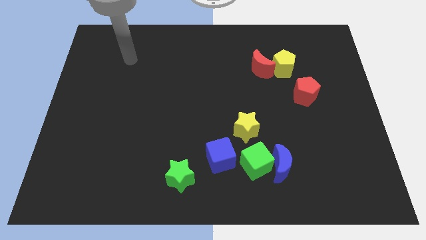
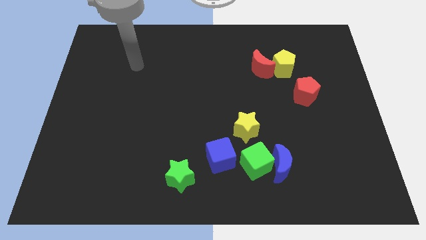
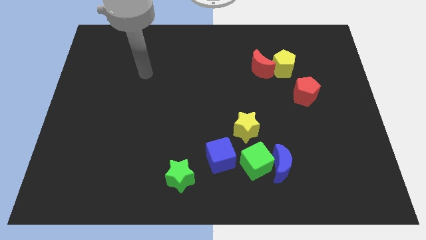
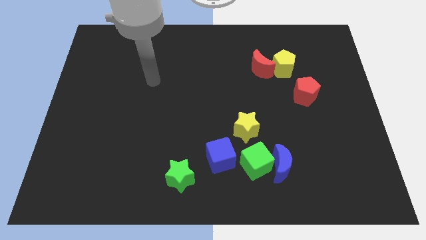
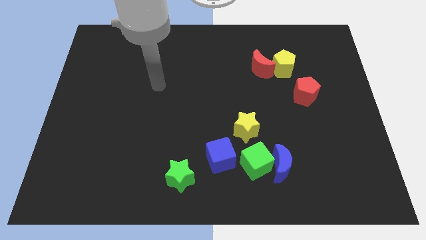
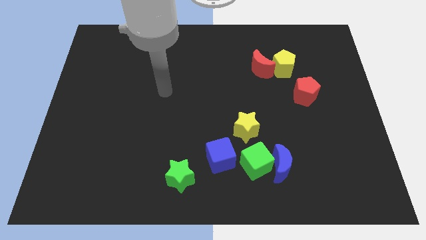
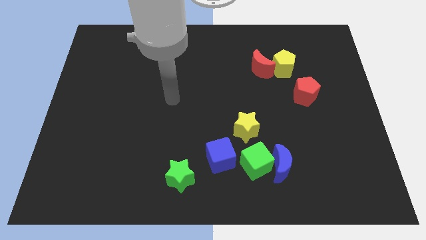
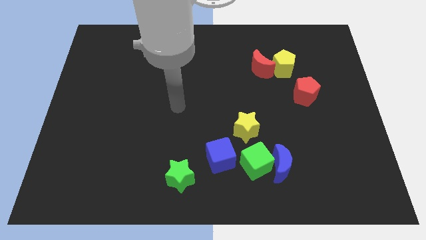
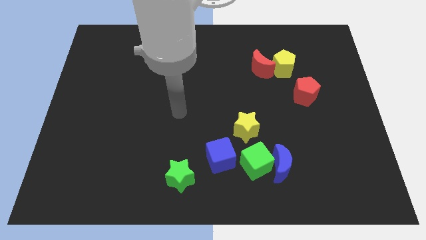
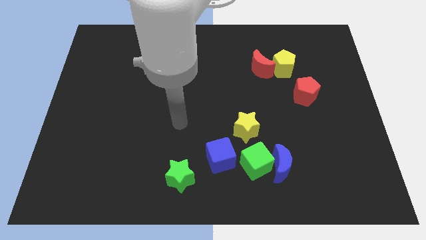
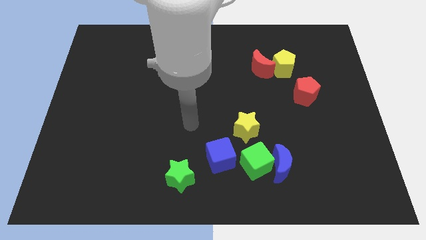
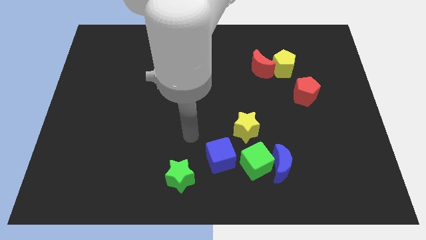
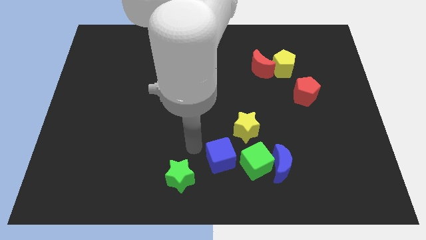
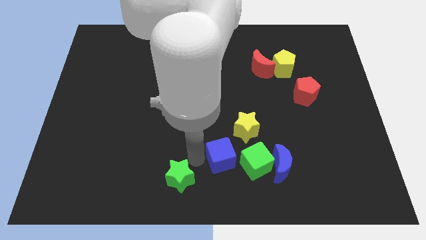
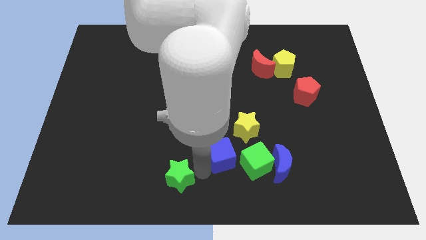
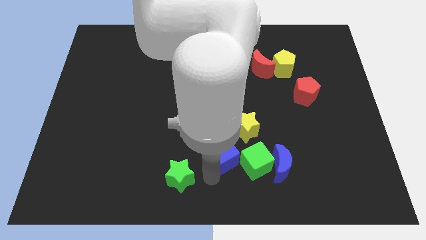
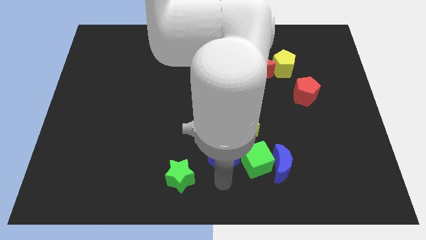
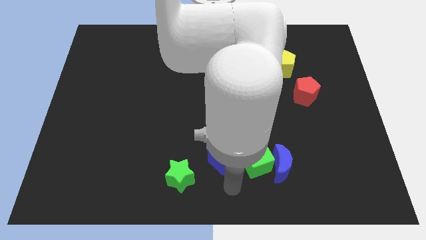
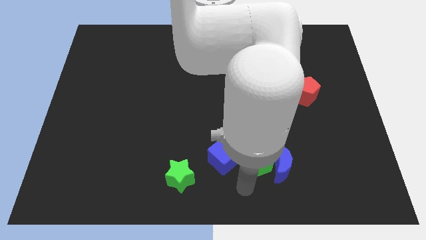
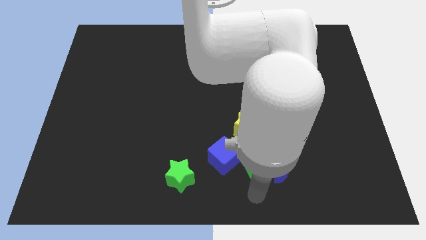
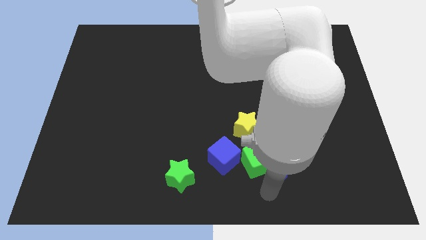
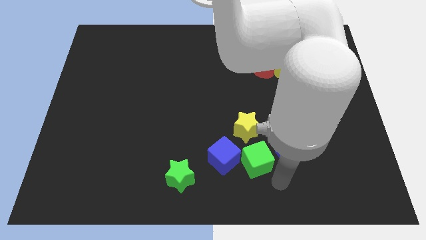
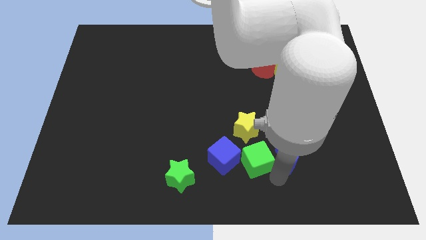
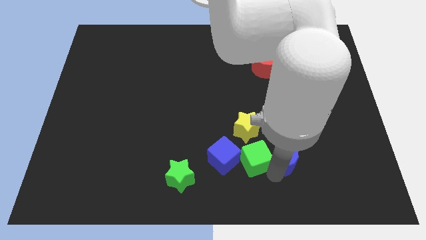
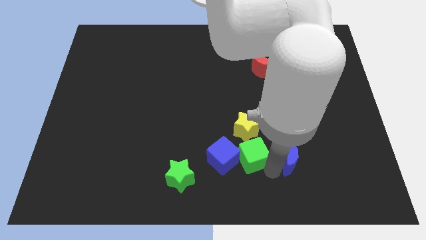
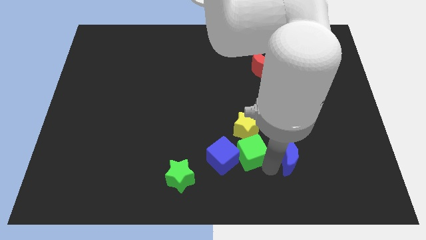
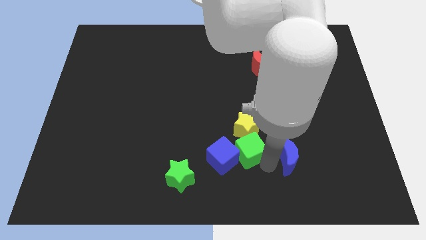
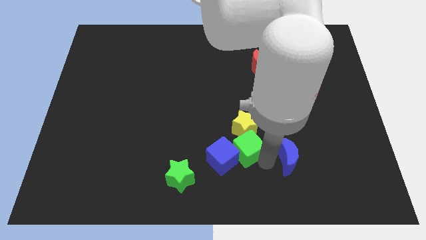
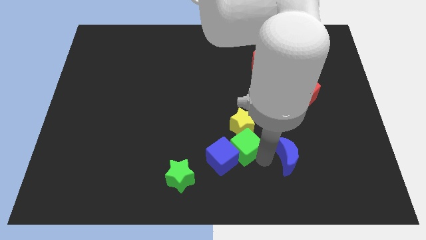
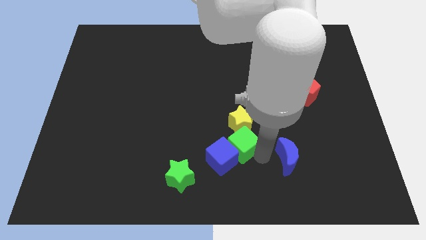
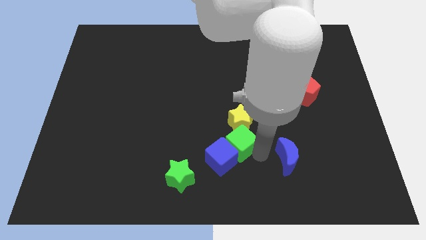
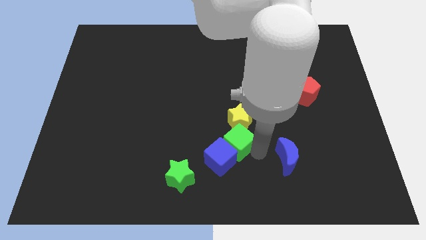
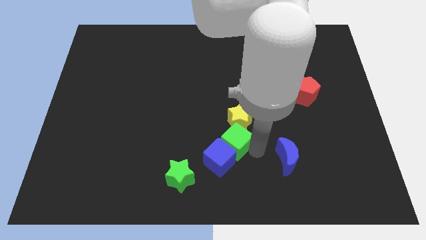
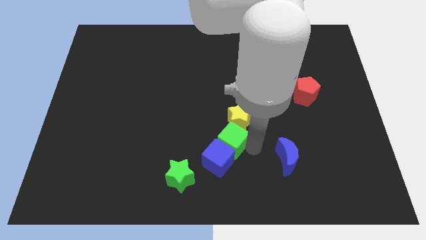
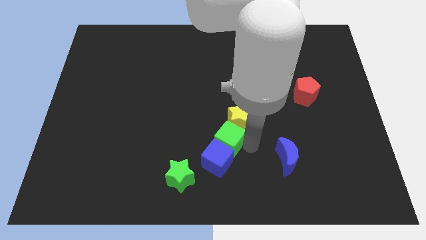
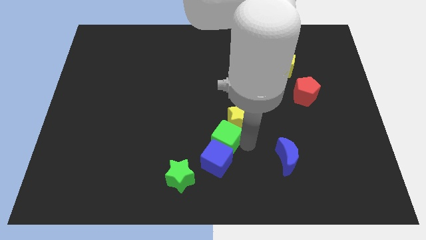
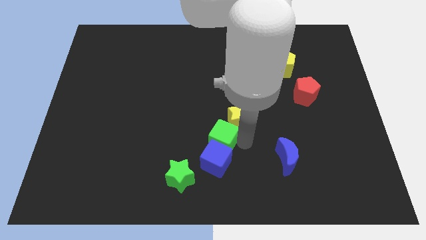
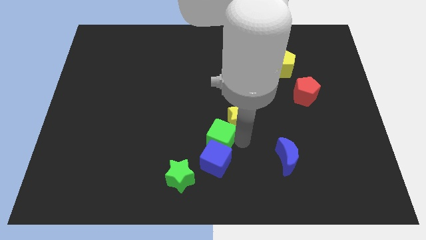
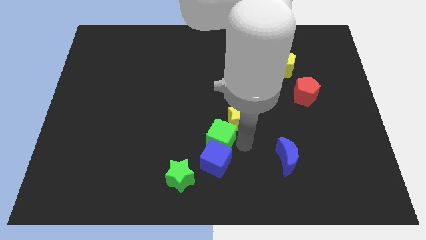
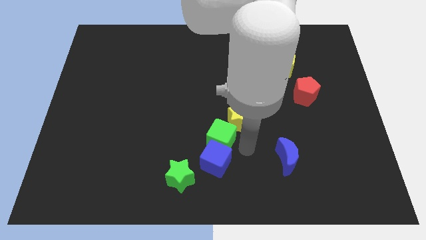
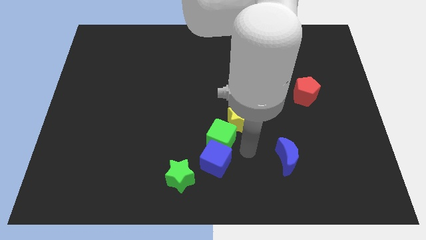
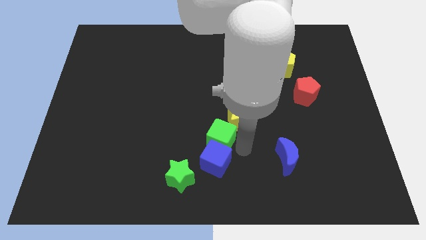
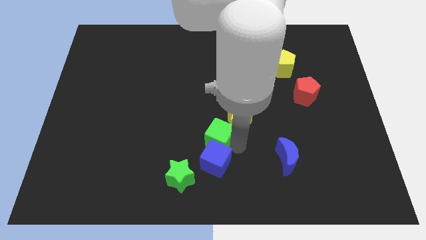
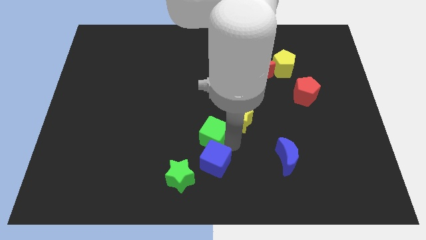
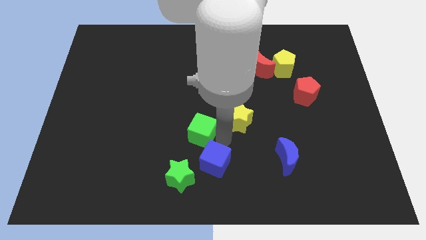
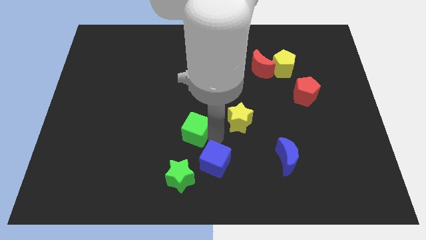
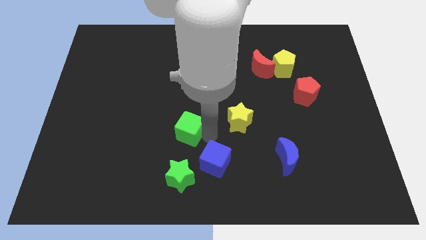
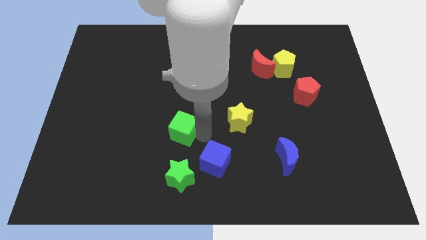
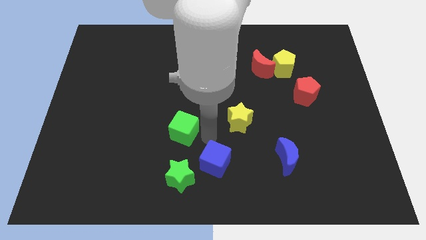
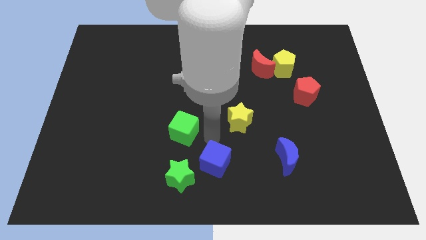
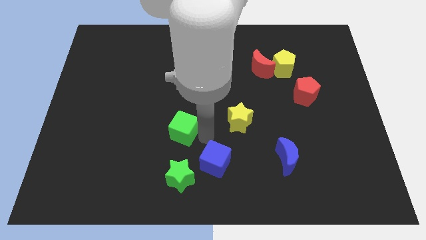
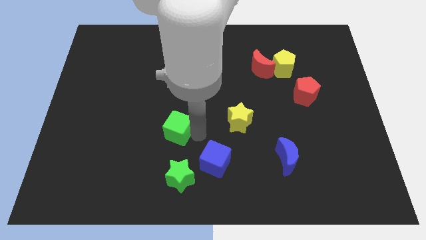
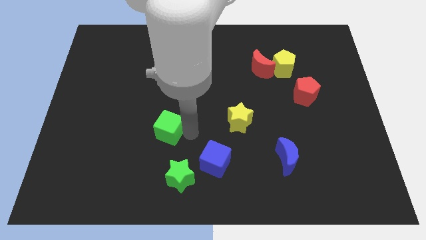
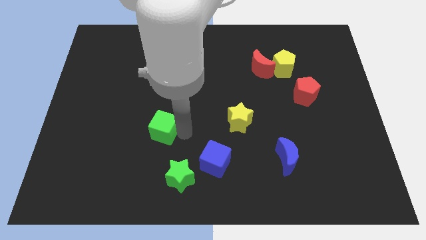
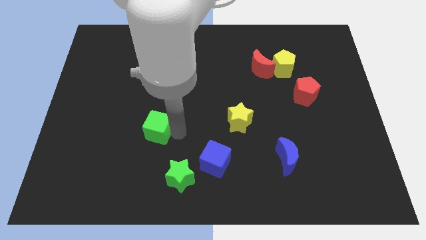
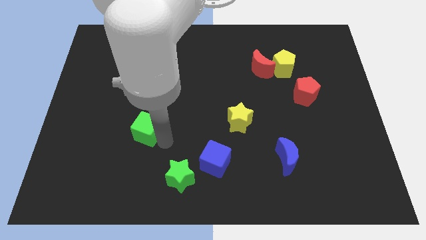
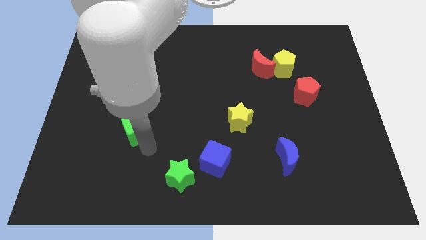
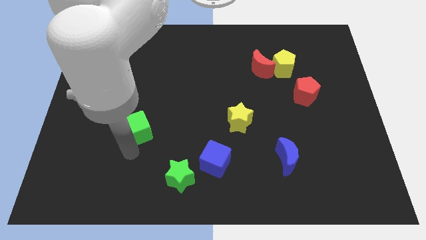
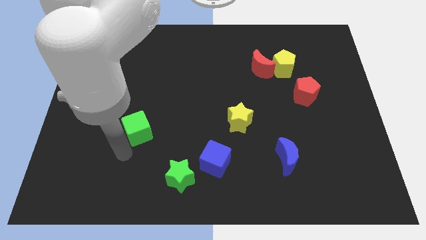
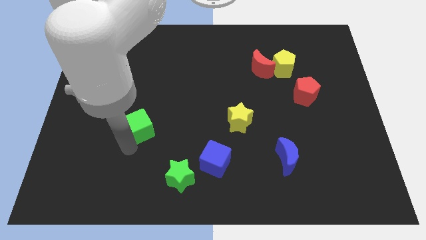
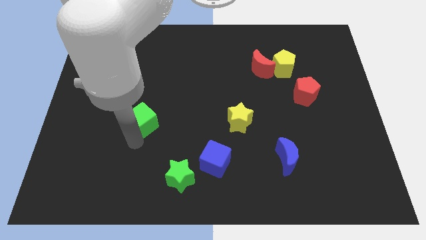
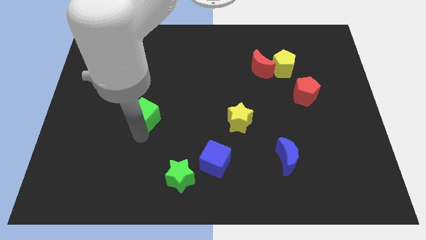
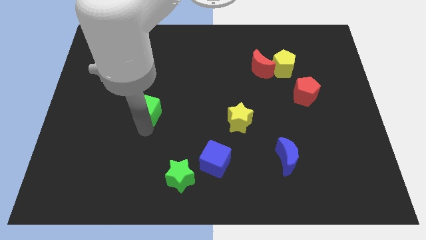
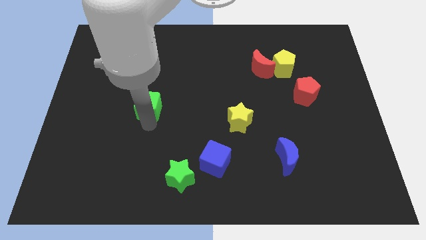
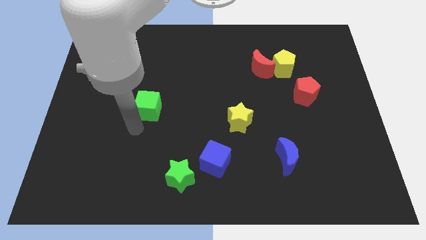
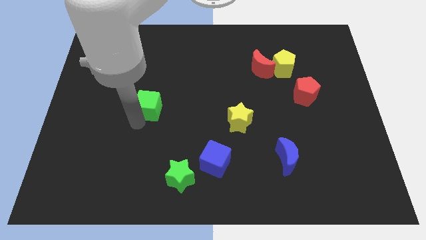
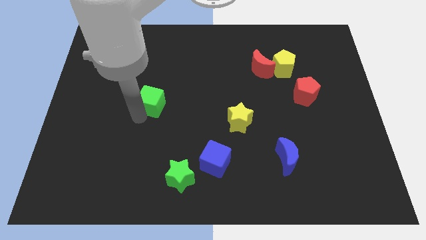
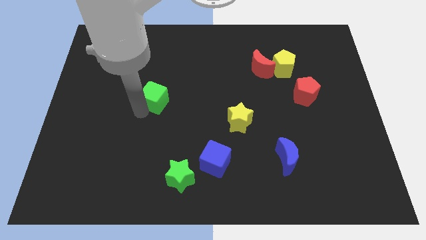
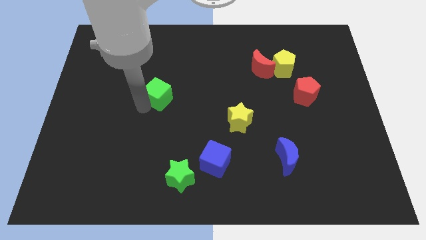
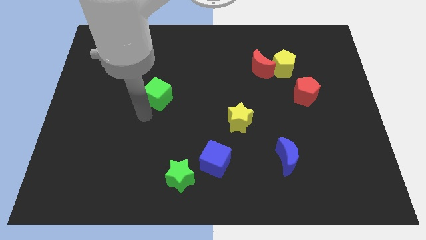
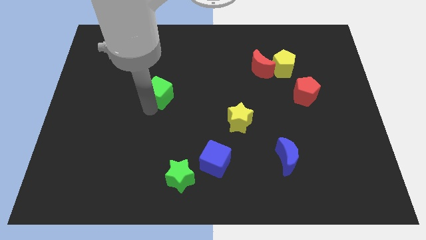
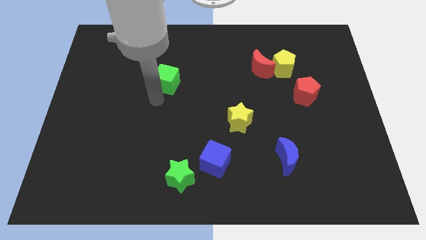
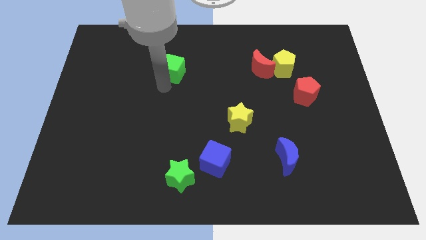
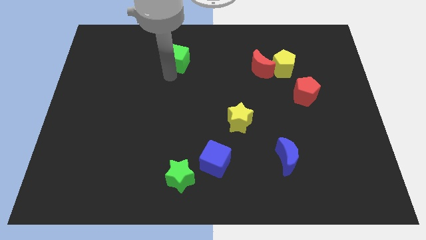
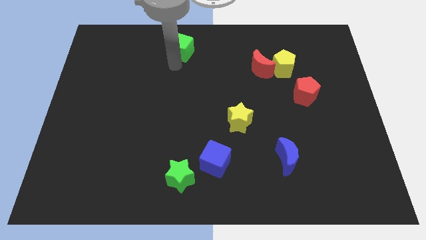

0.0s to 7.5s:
move the green cube to the top side

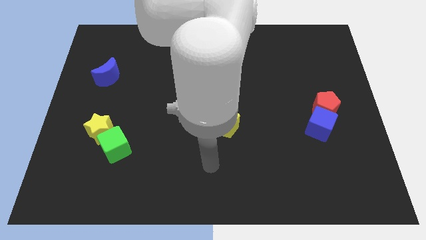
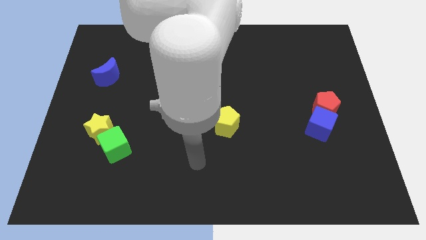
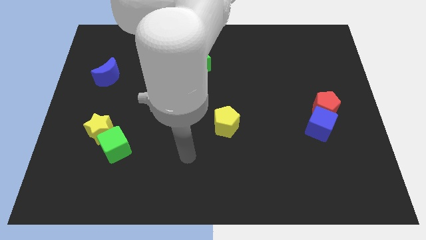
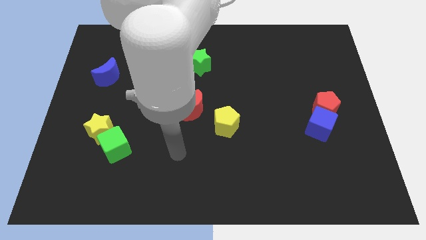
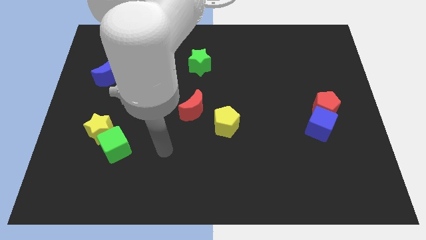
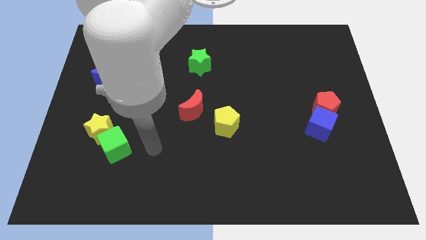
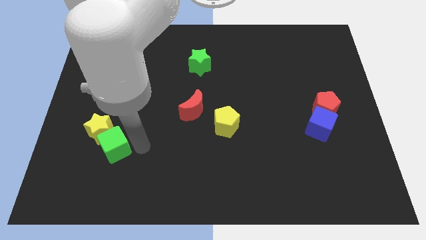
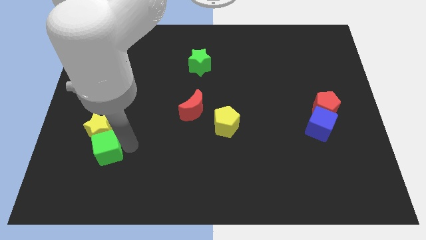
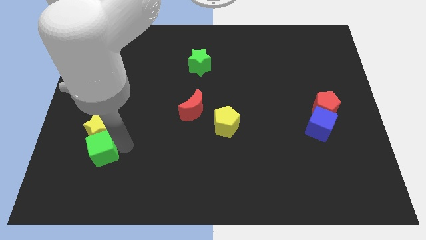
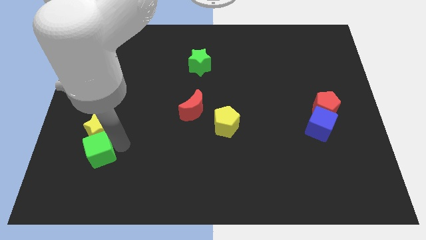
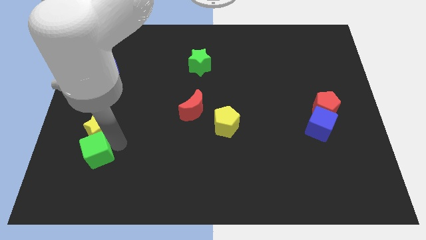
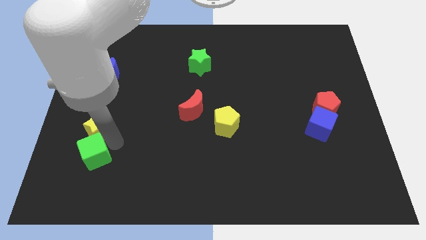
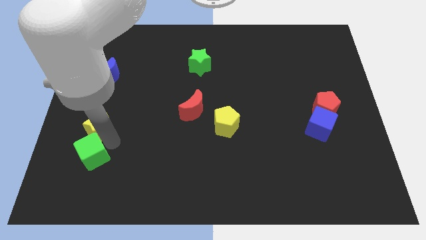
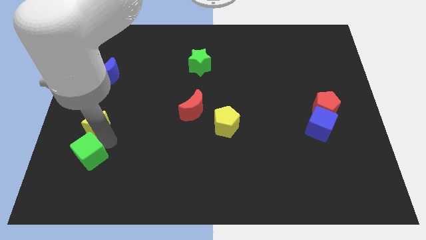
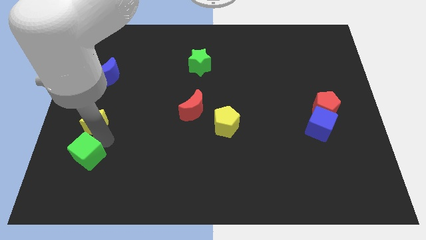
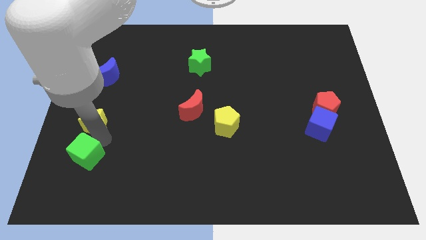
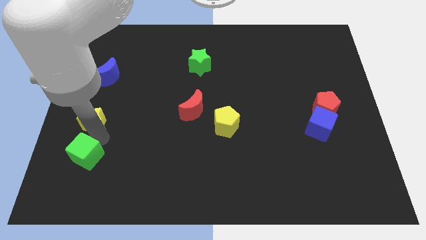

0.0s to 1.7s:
move the yellow star to the left side
